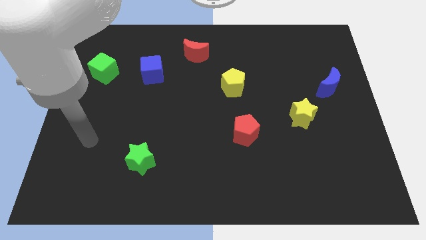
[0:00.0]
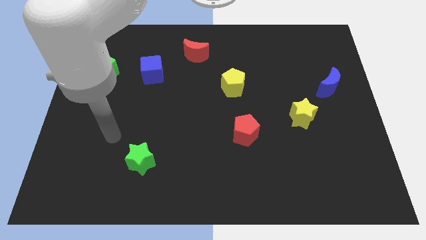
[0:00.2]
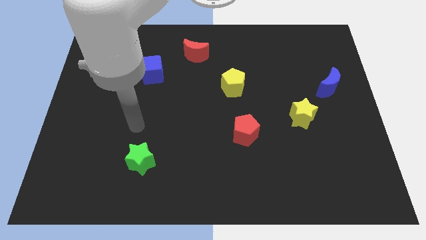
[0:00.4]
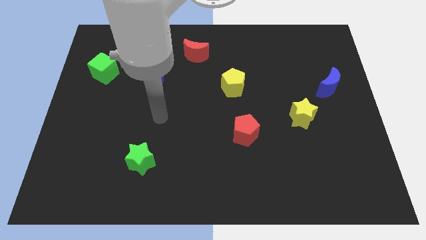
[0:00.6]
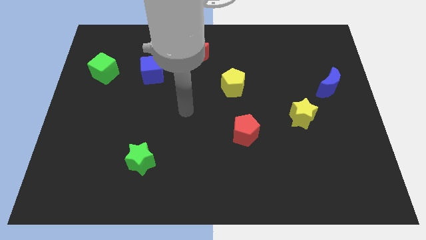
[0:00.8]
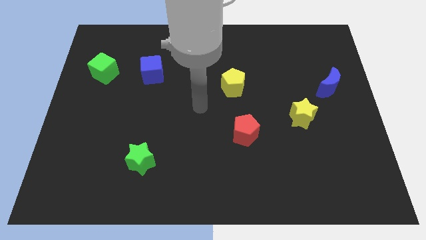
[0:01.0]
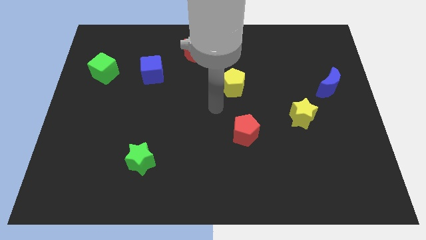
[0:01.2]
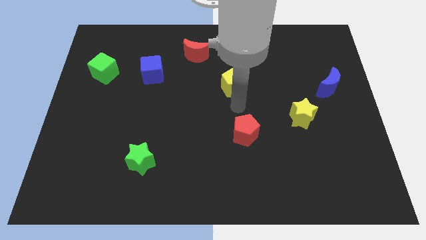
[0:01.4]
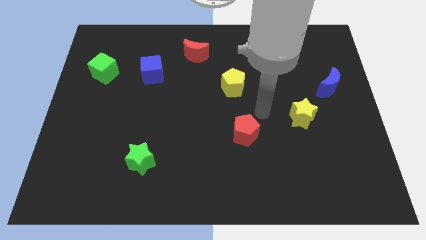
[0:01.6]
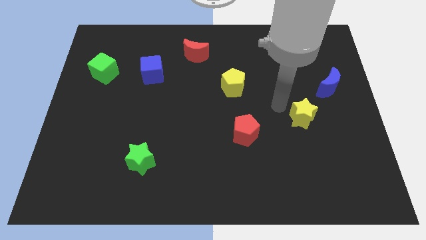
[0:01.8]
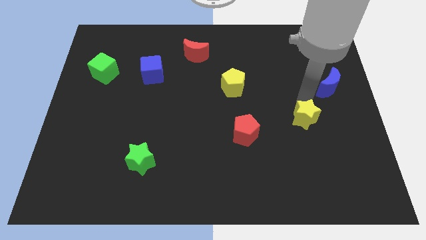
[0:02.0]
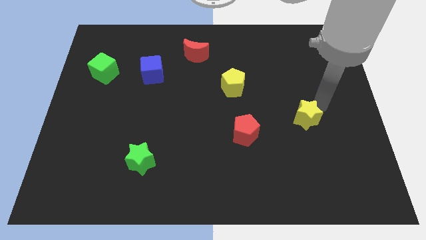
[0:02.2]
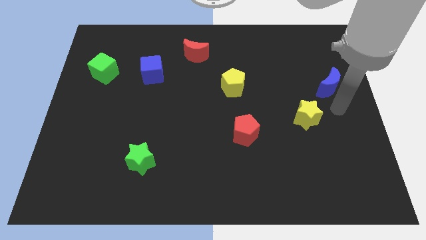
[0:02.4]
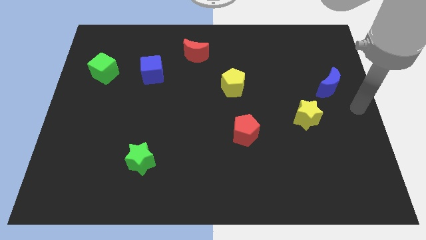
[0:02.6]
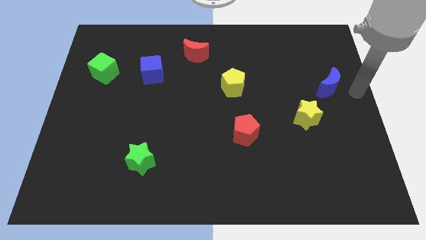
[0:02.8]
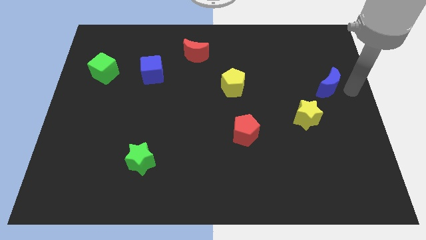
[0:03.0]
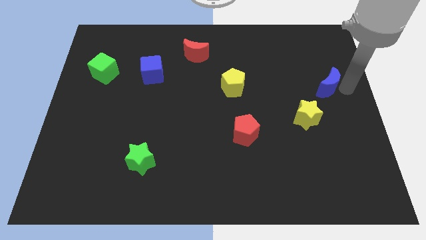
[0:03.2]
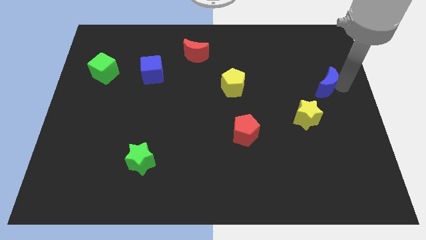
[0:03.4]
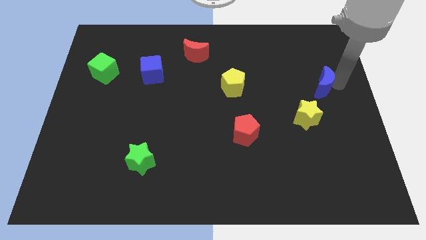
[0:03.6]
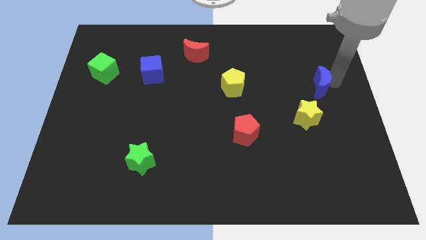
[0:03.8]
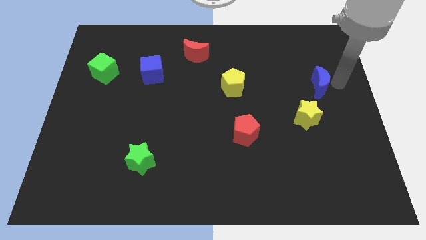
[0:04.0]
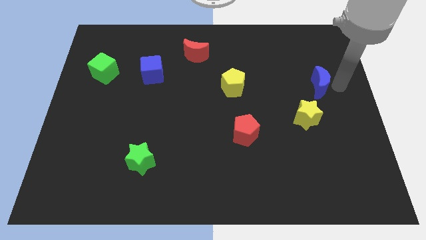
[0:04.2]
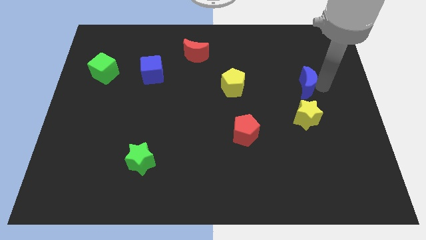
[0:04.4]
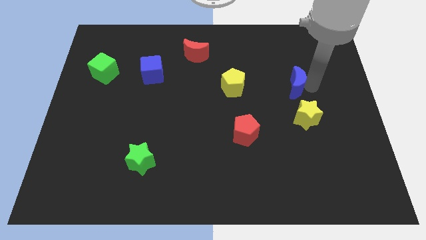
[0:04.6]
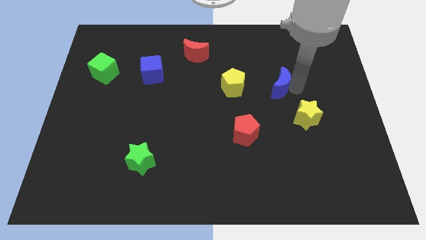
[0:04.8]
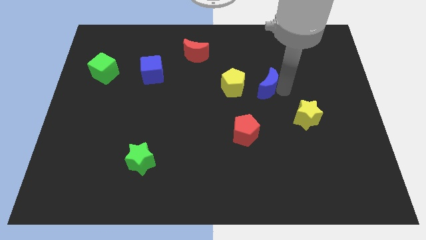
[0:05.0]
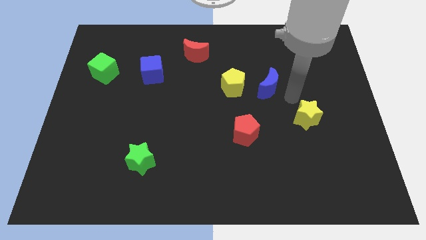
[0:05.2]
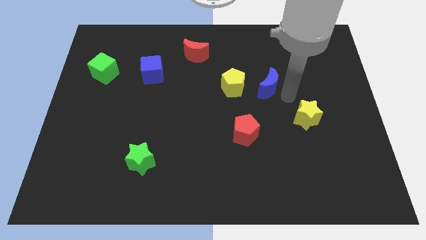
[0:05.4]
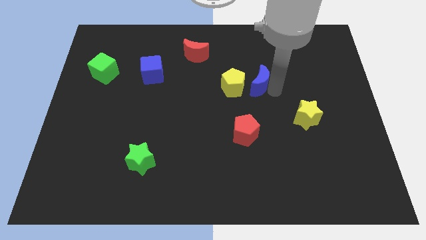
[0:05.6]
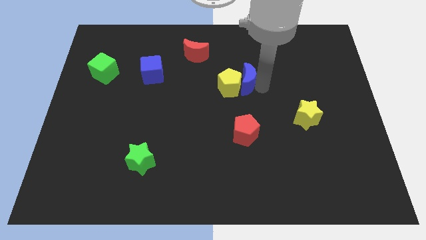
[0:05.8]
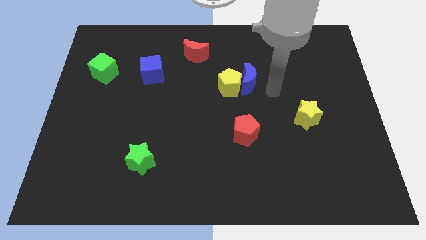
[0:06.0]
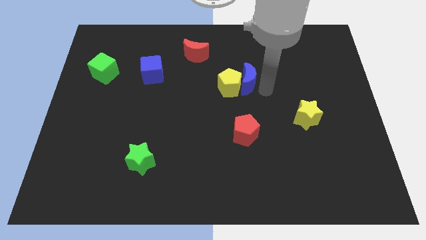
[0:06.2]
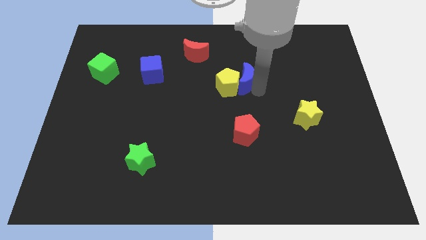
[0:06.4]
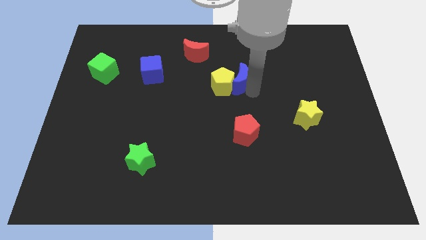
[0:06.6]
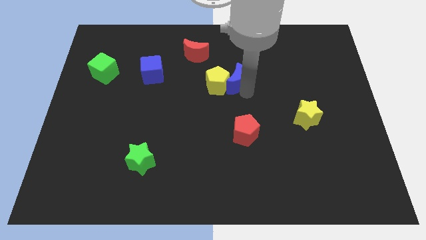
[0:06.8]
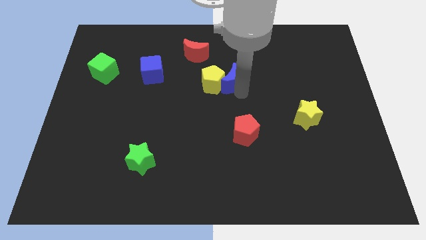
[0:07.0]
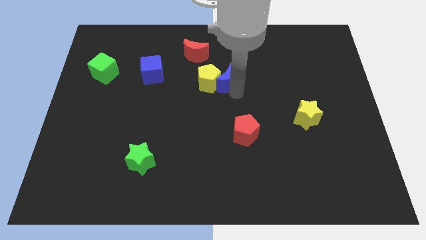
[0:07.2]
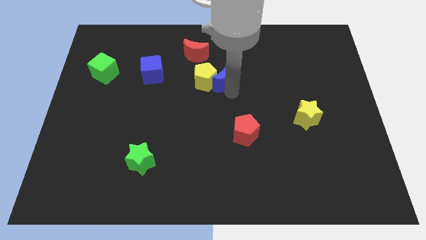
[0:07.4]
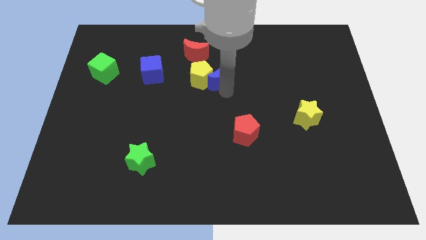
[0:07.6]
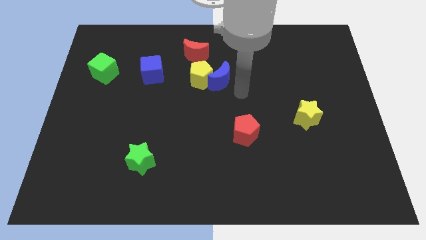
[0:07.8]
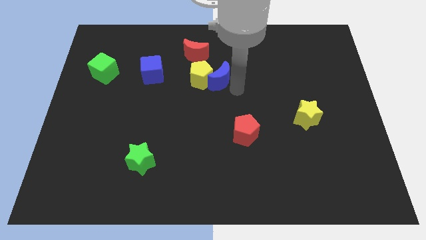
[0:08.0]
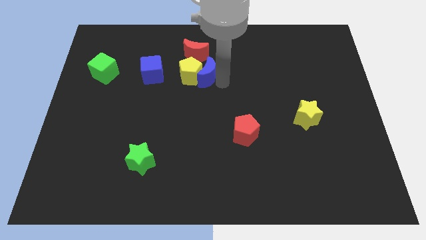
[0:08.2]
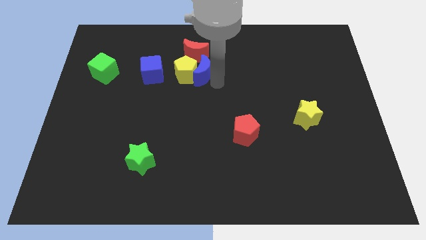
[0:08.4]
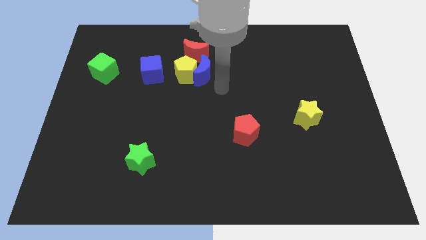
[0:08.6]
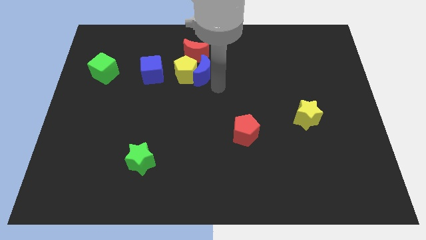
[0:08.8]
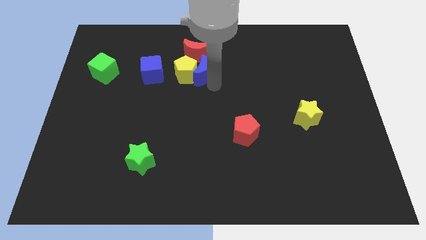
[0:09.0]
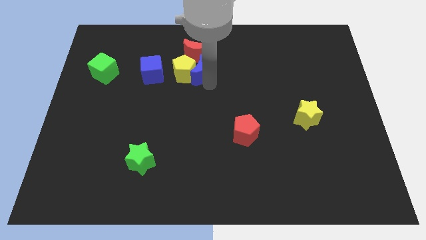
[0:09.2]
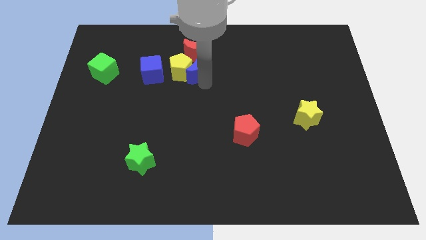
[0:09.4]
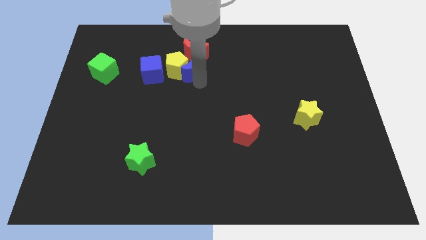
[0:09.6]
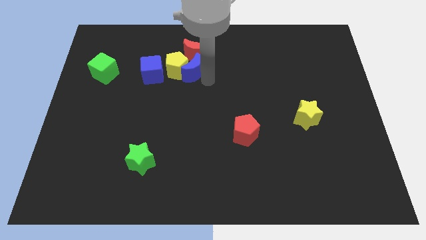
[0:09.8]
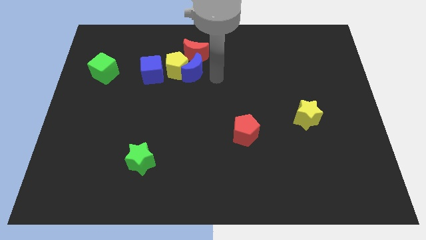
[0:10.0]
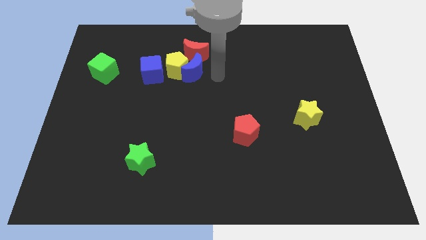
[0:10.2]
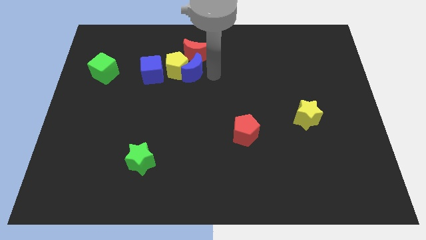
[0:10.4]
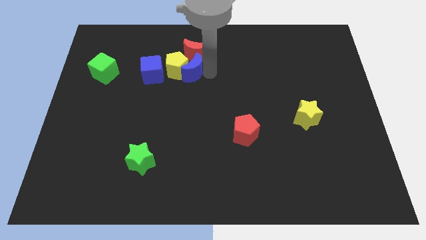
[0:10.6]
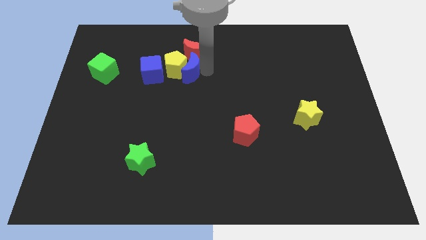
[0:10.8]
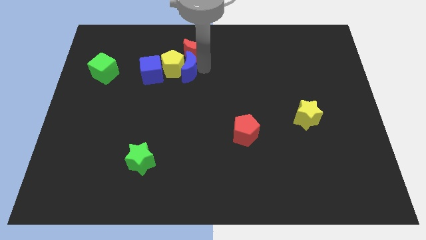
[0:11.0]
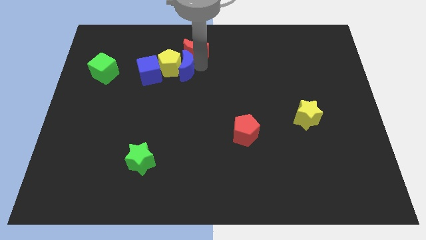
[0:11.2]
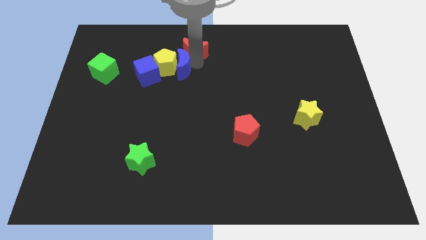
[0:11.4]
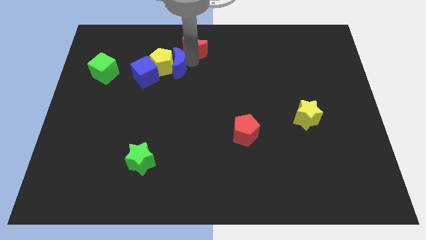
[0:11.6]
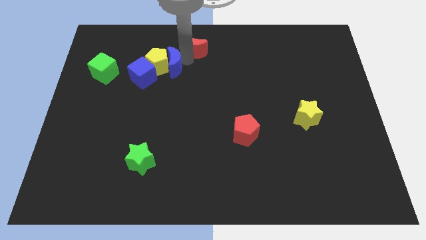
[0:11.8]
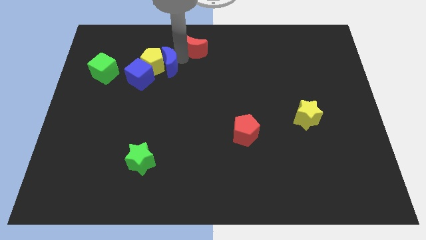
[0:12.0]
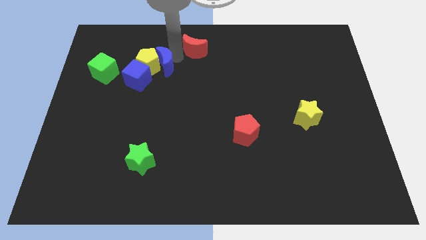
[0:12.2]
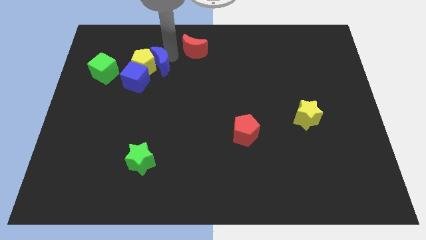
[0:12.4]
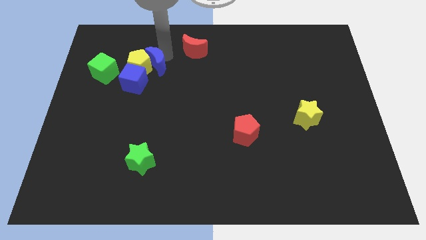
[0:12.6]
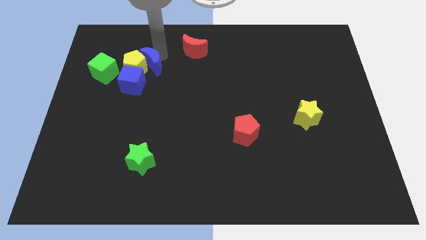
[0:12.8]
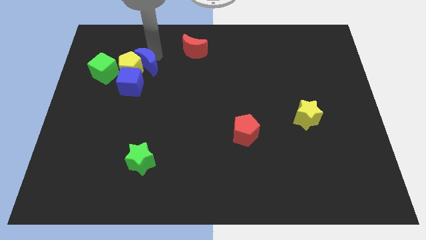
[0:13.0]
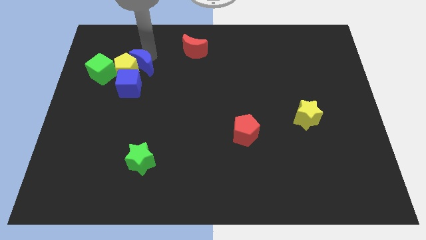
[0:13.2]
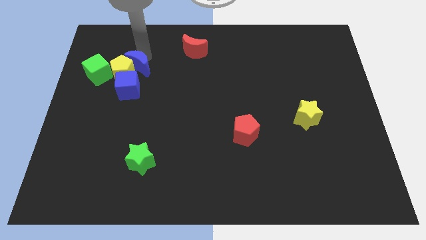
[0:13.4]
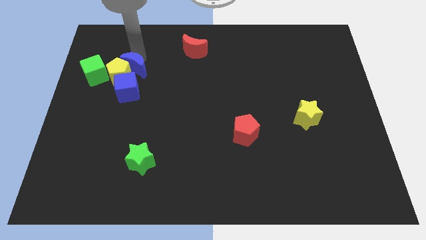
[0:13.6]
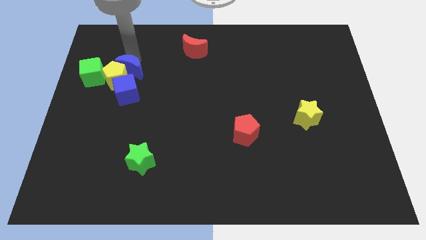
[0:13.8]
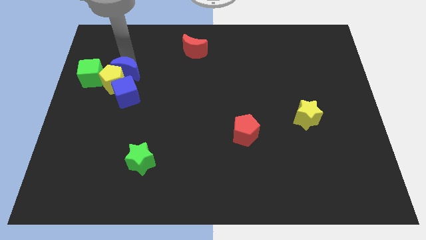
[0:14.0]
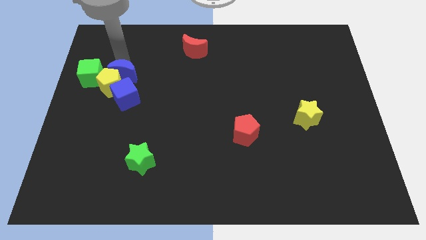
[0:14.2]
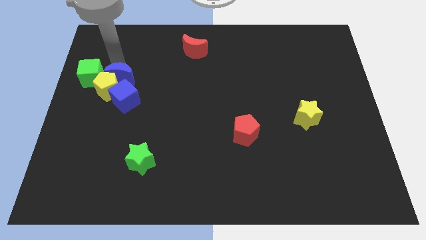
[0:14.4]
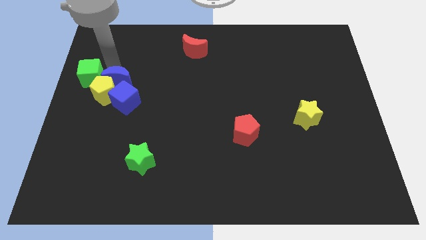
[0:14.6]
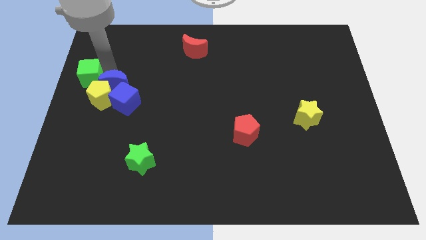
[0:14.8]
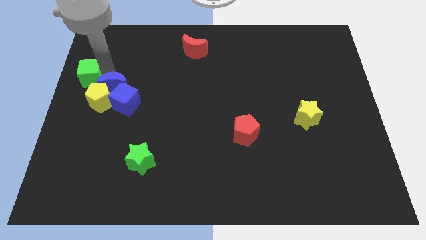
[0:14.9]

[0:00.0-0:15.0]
slide the blue moon towards the blue cube

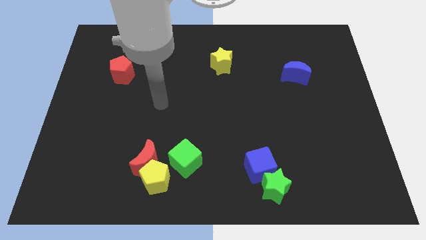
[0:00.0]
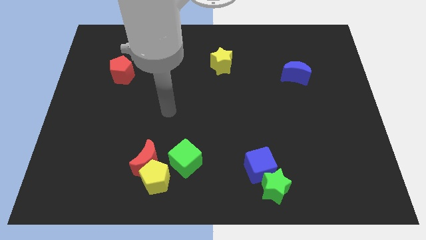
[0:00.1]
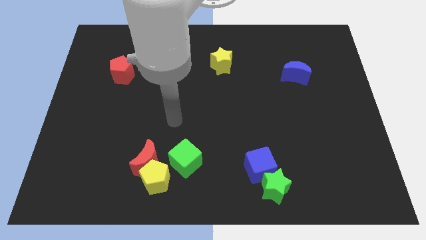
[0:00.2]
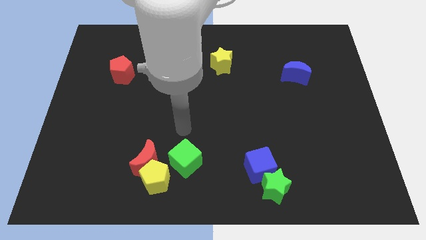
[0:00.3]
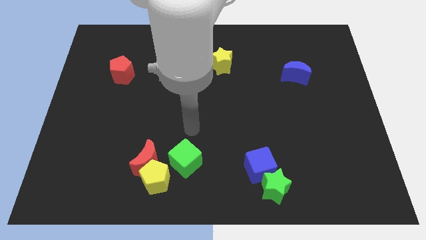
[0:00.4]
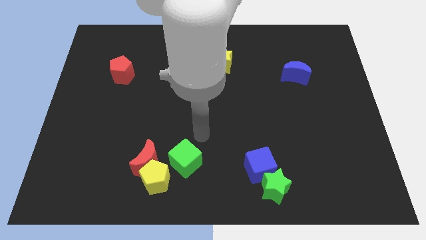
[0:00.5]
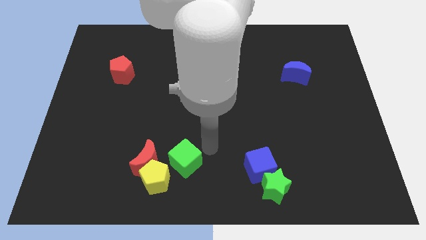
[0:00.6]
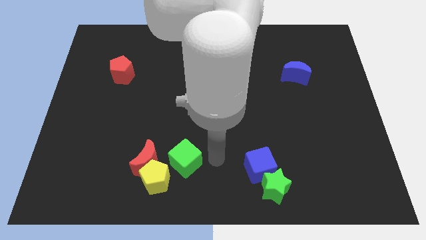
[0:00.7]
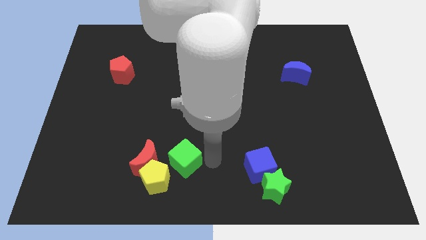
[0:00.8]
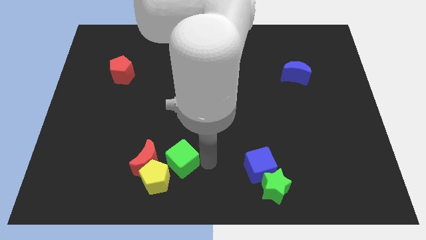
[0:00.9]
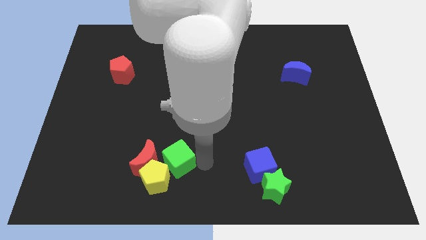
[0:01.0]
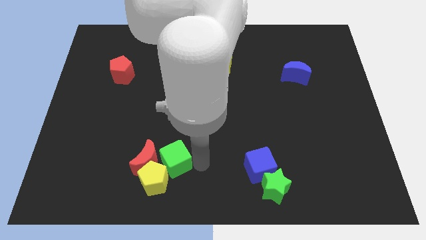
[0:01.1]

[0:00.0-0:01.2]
push the green cube towards the red moon
